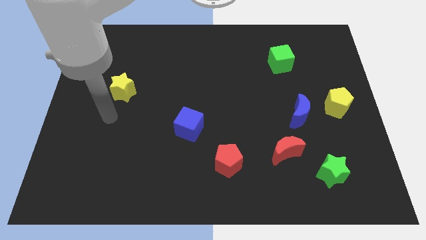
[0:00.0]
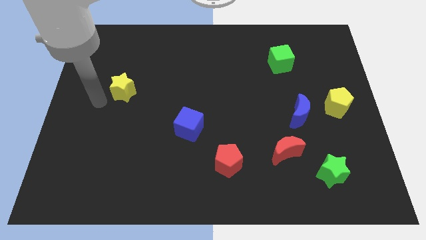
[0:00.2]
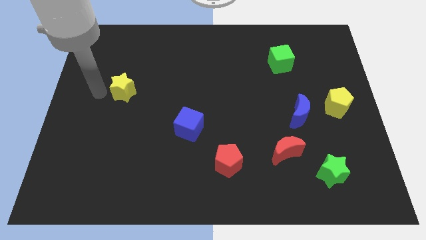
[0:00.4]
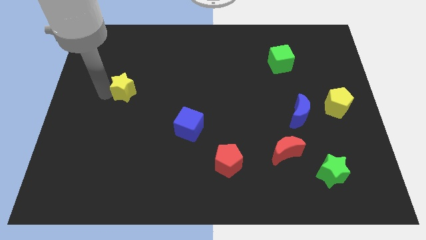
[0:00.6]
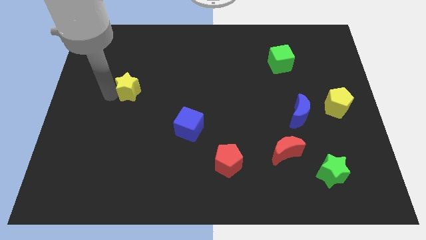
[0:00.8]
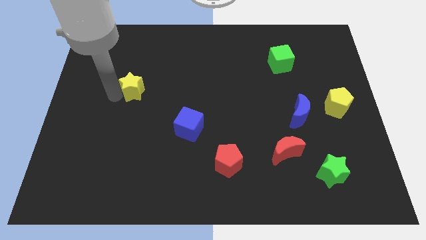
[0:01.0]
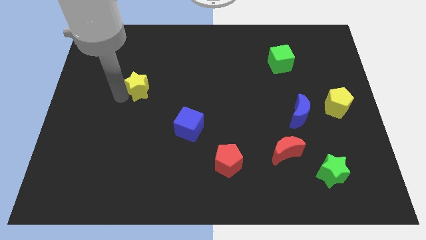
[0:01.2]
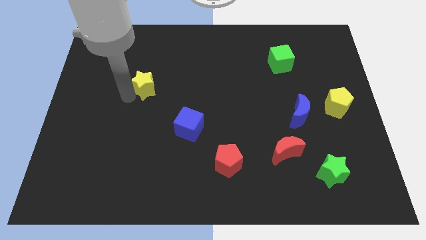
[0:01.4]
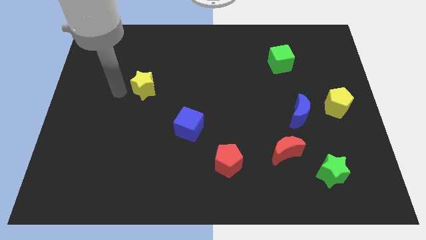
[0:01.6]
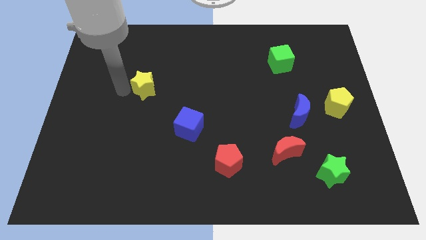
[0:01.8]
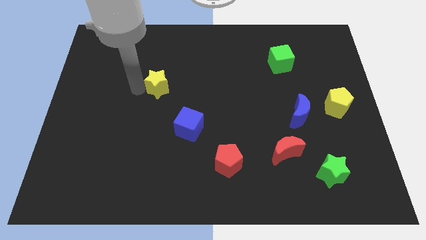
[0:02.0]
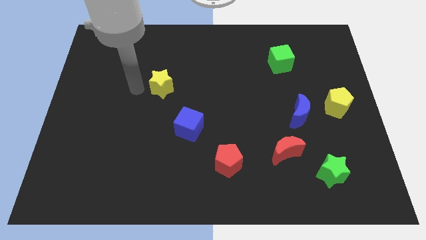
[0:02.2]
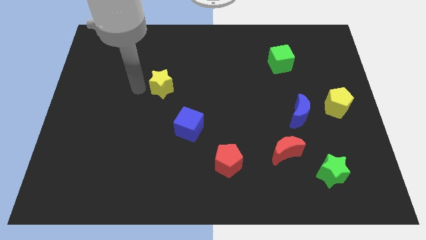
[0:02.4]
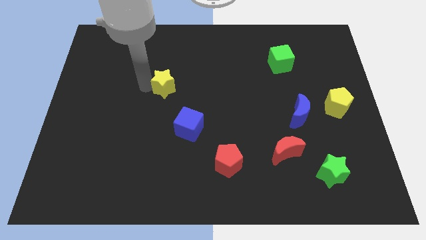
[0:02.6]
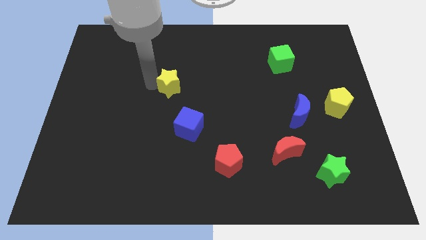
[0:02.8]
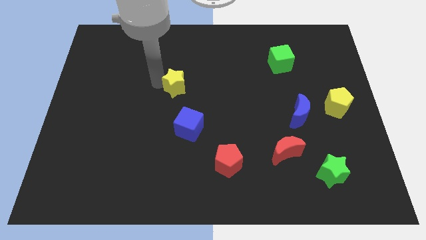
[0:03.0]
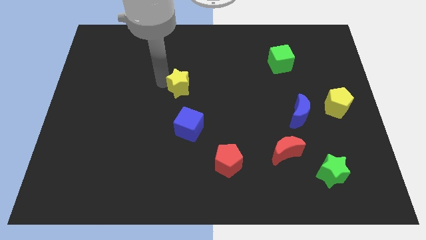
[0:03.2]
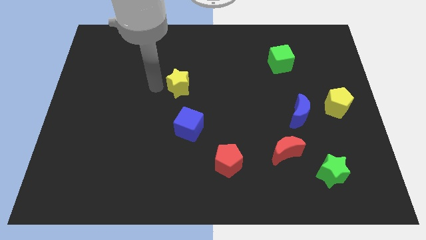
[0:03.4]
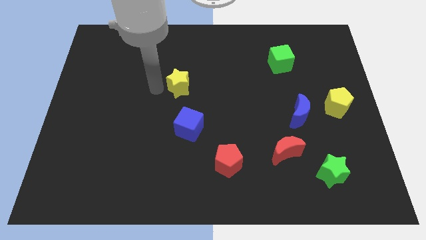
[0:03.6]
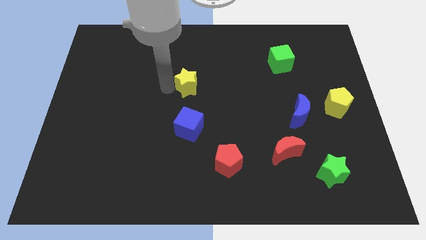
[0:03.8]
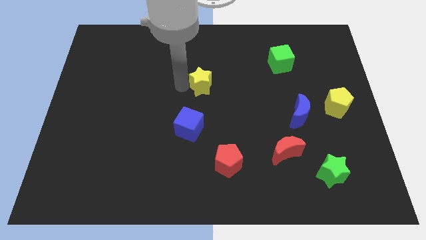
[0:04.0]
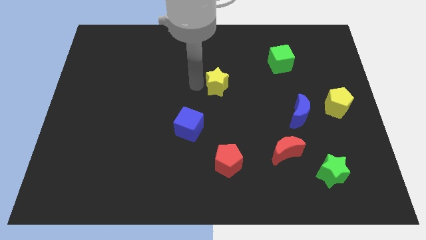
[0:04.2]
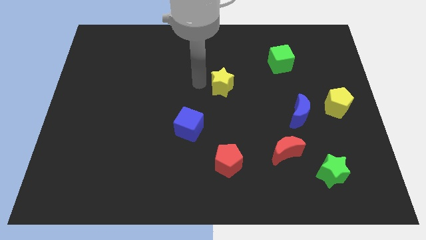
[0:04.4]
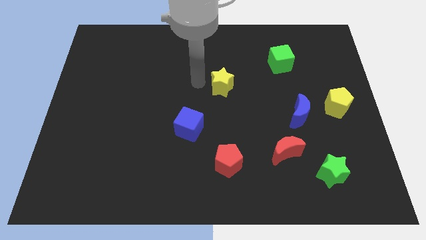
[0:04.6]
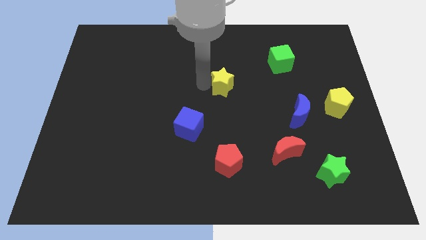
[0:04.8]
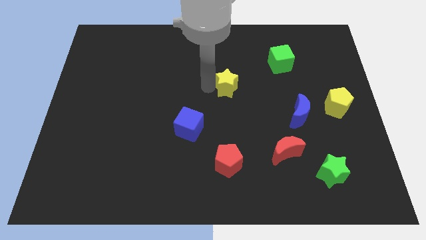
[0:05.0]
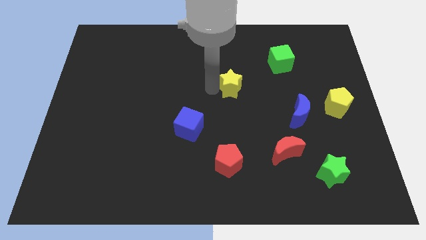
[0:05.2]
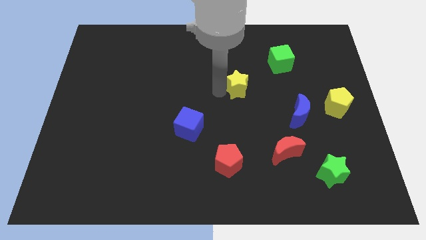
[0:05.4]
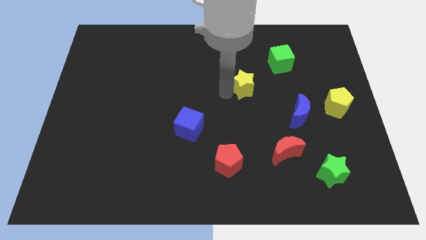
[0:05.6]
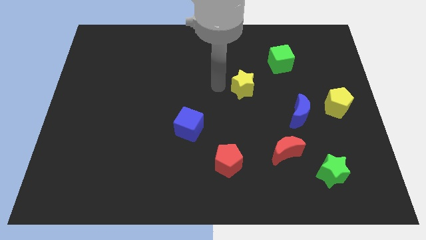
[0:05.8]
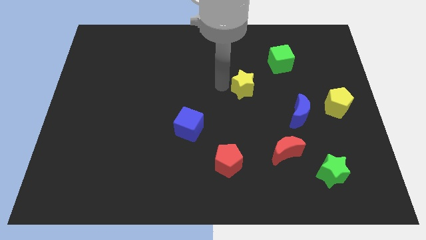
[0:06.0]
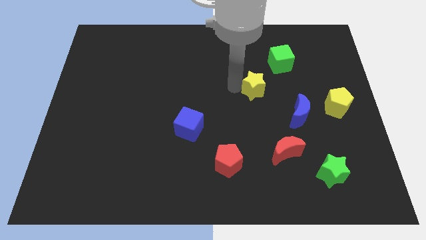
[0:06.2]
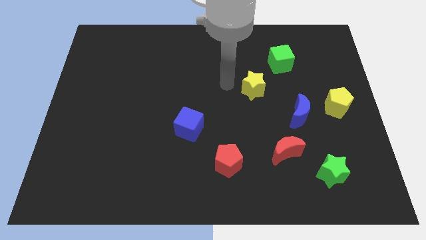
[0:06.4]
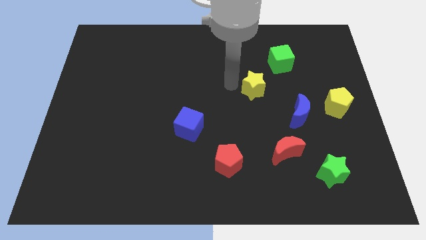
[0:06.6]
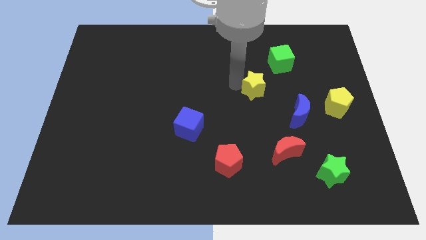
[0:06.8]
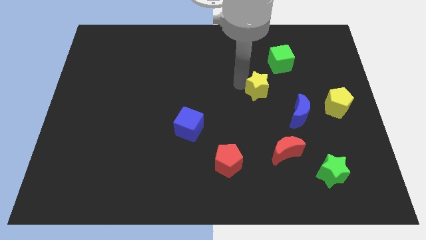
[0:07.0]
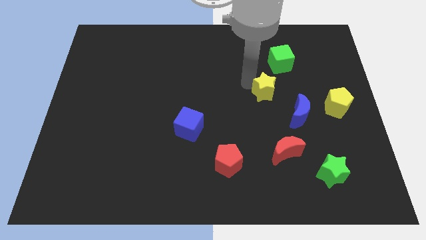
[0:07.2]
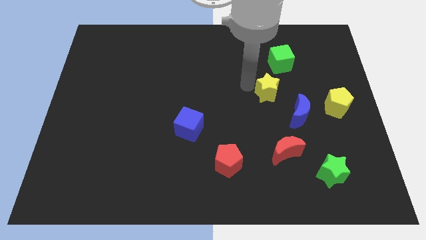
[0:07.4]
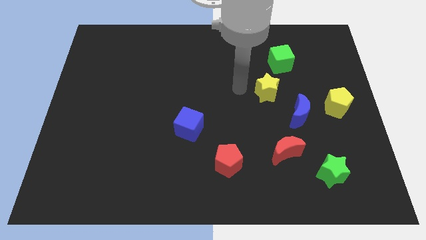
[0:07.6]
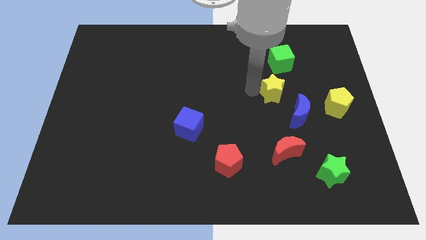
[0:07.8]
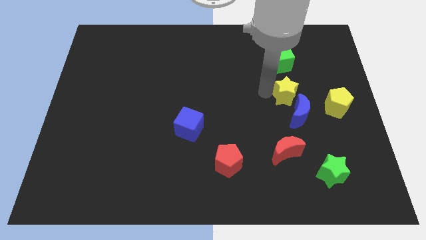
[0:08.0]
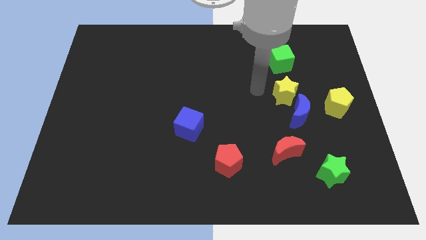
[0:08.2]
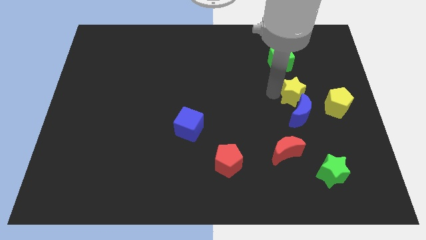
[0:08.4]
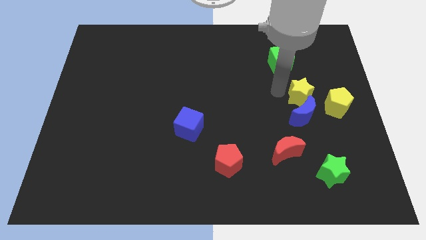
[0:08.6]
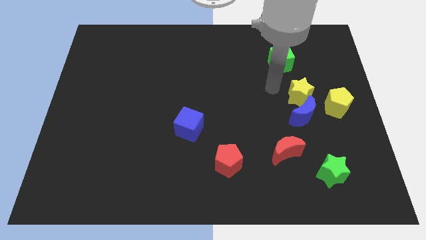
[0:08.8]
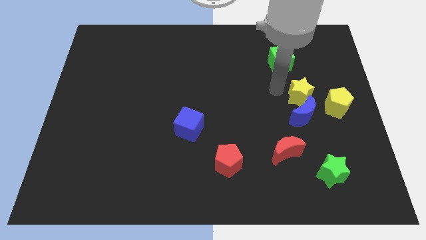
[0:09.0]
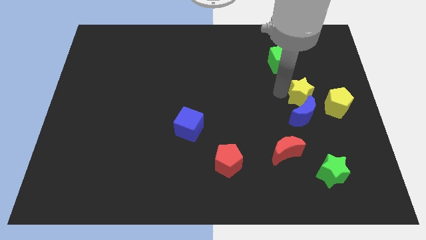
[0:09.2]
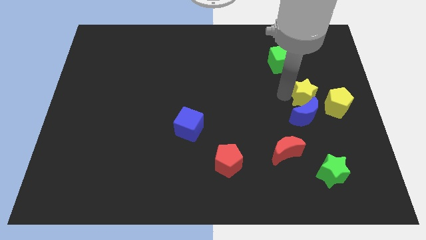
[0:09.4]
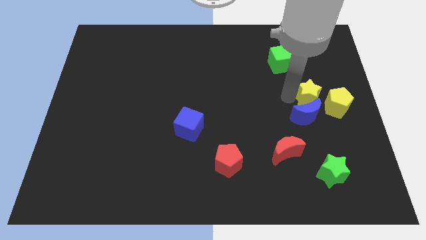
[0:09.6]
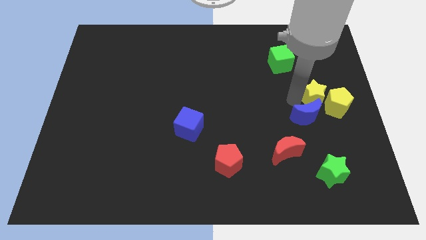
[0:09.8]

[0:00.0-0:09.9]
push the yellow star to the yellow pentagon

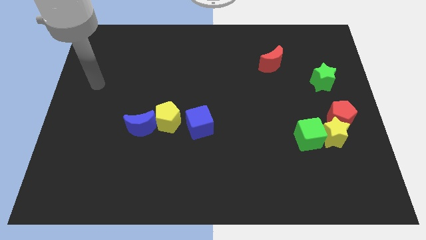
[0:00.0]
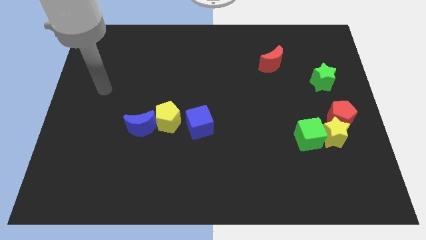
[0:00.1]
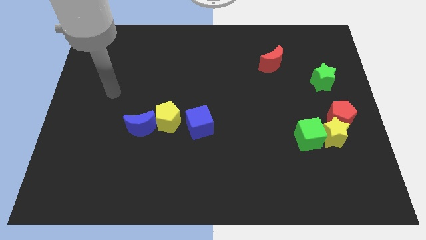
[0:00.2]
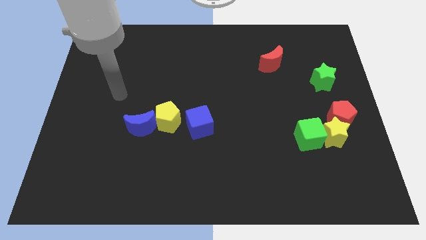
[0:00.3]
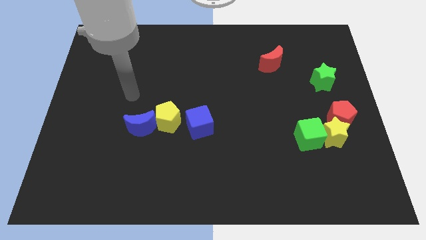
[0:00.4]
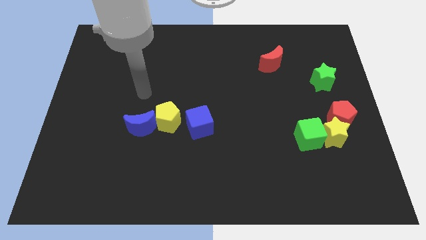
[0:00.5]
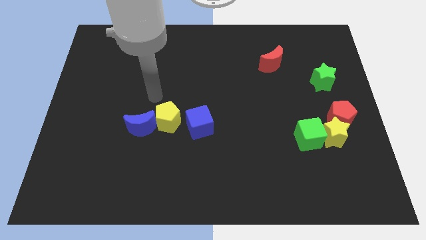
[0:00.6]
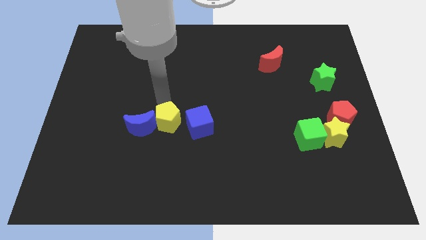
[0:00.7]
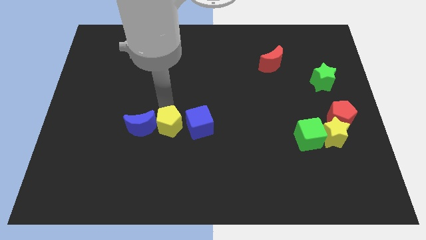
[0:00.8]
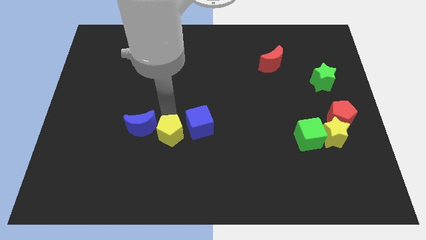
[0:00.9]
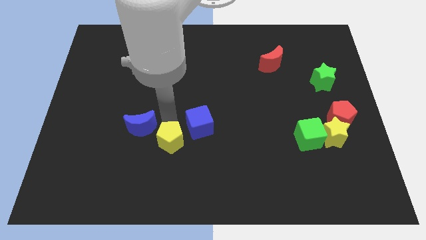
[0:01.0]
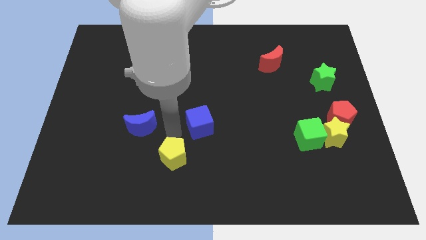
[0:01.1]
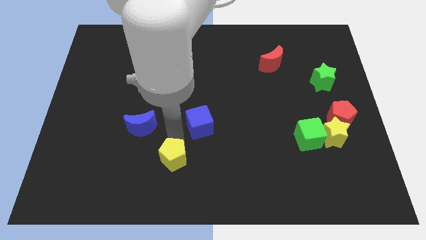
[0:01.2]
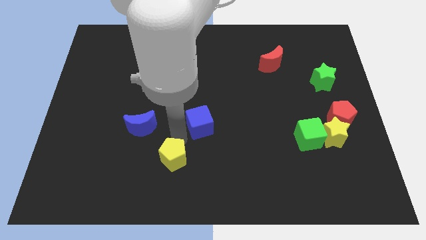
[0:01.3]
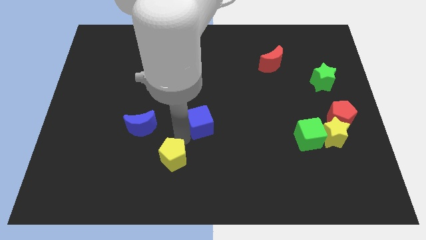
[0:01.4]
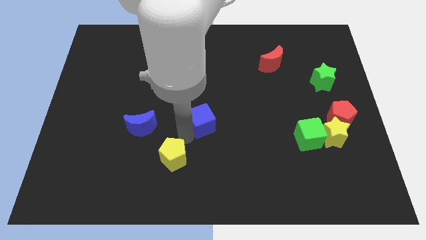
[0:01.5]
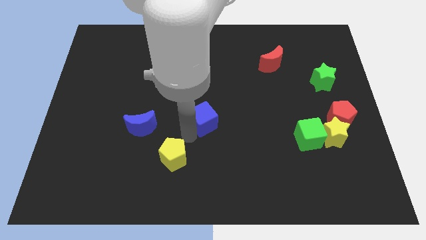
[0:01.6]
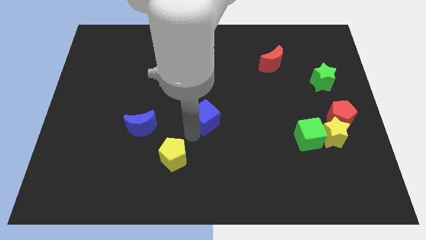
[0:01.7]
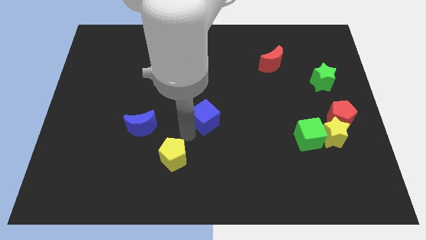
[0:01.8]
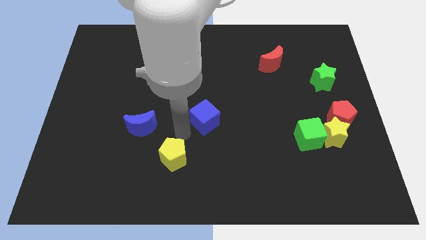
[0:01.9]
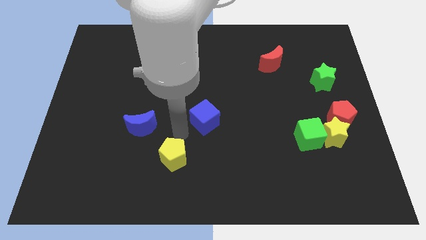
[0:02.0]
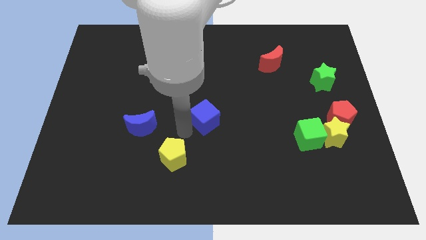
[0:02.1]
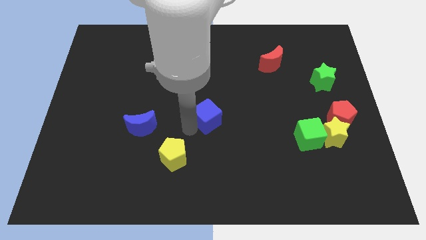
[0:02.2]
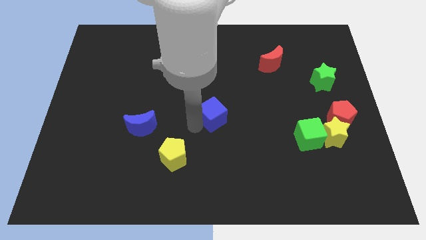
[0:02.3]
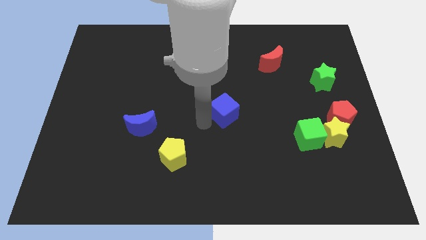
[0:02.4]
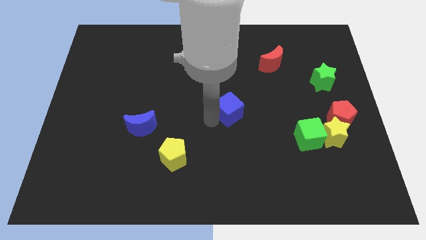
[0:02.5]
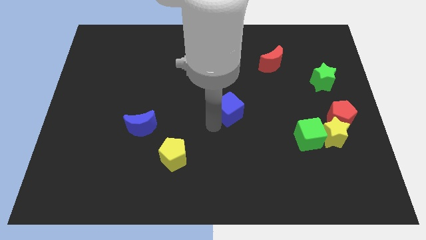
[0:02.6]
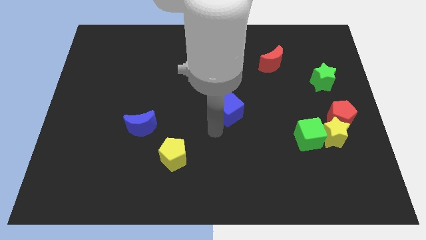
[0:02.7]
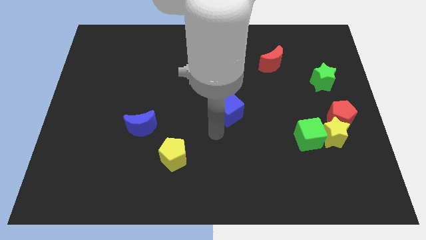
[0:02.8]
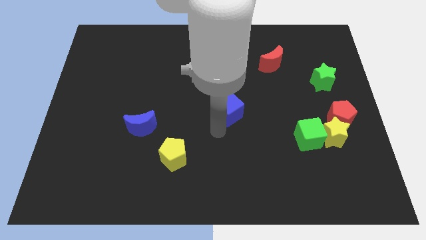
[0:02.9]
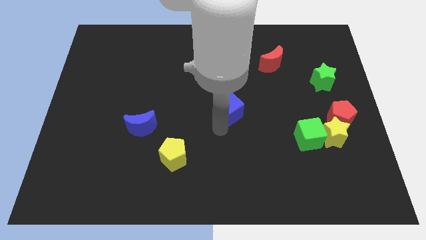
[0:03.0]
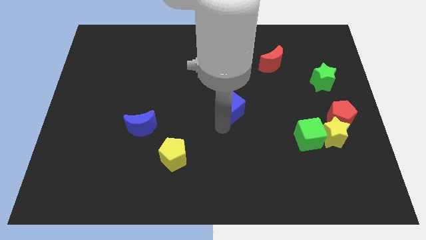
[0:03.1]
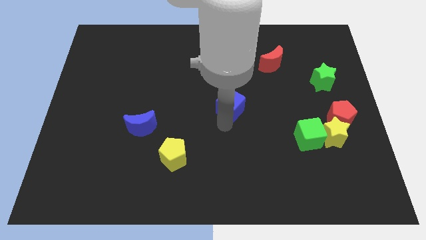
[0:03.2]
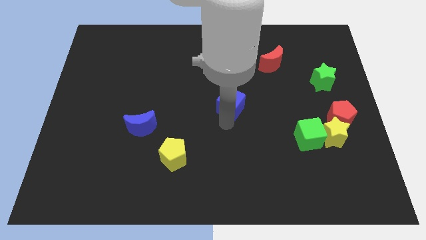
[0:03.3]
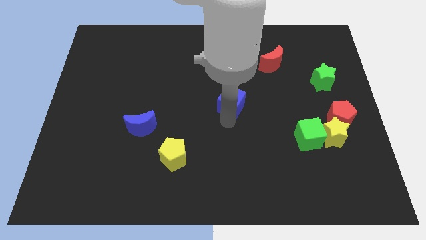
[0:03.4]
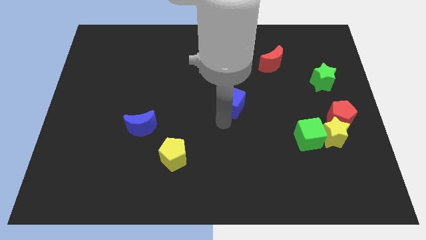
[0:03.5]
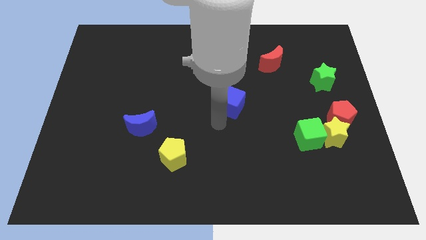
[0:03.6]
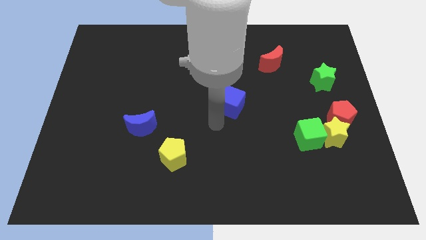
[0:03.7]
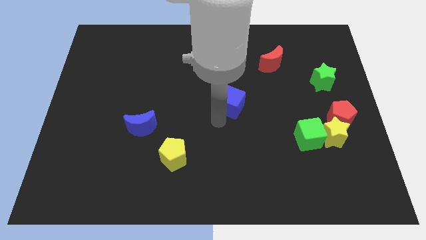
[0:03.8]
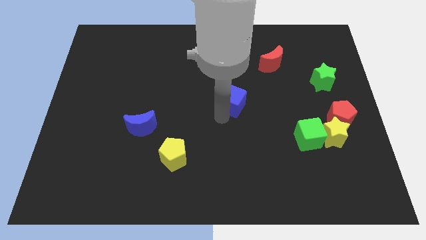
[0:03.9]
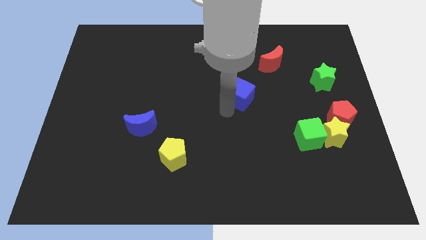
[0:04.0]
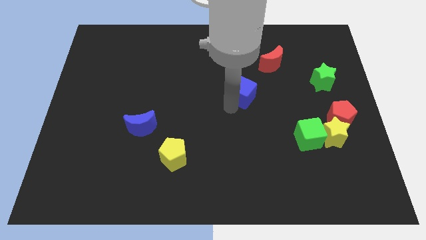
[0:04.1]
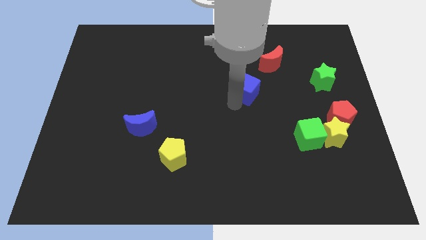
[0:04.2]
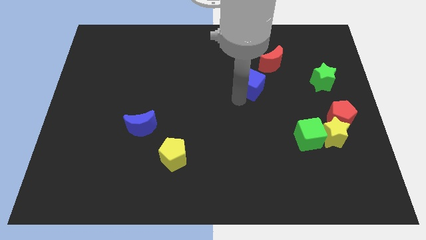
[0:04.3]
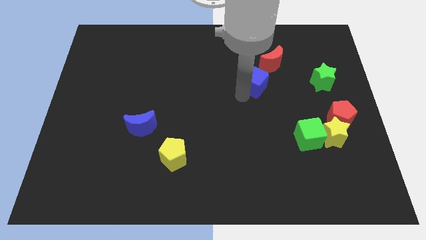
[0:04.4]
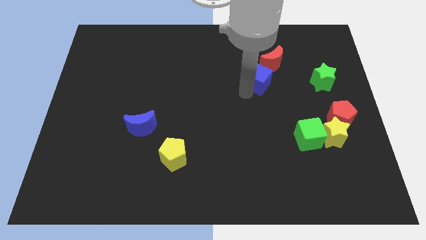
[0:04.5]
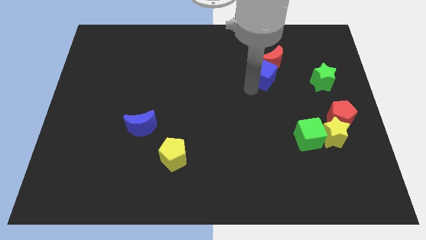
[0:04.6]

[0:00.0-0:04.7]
move the blue cube to the red moon
